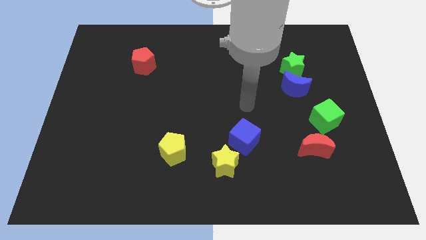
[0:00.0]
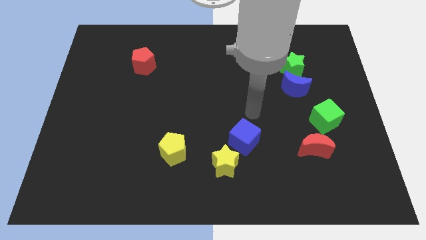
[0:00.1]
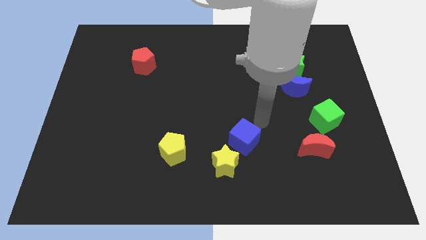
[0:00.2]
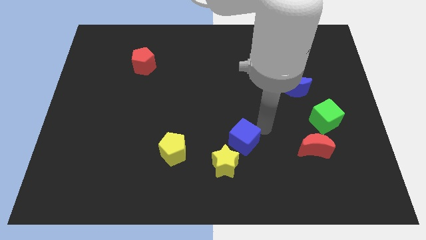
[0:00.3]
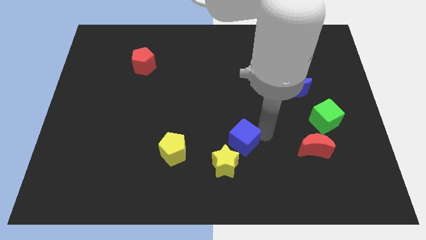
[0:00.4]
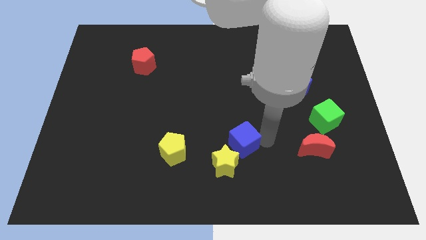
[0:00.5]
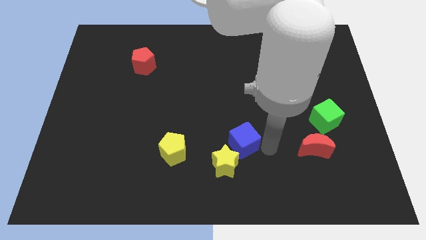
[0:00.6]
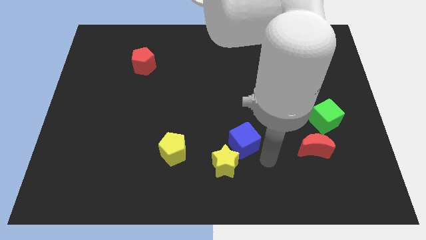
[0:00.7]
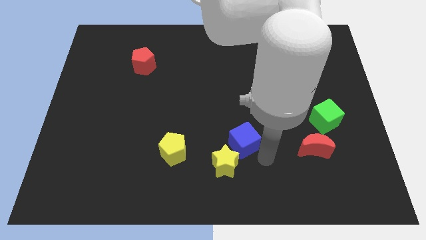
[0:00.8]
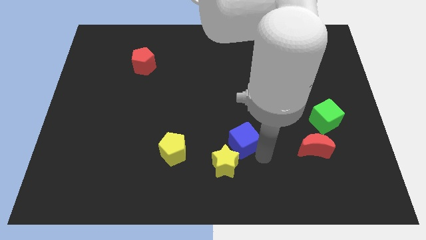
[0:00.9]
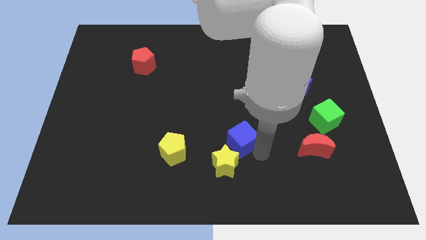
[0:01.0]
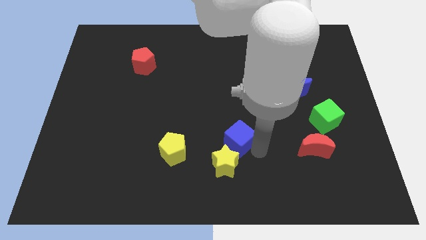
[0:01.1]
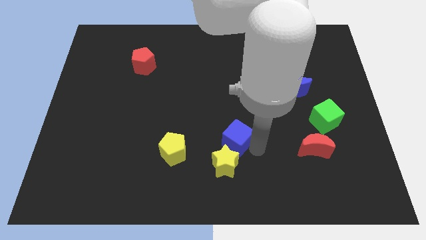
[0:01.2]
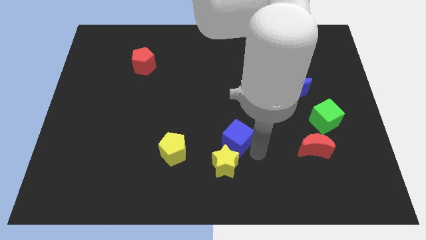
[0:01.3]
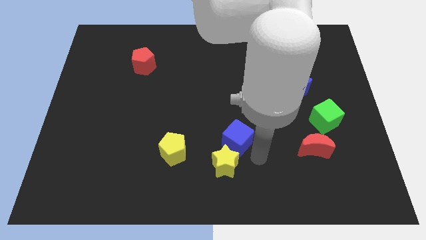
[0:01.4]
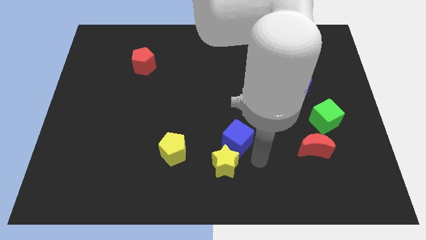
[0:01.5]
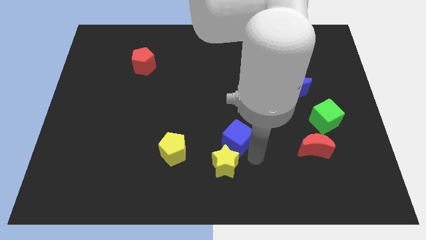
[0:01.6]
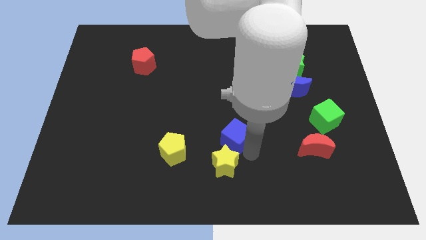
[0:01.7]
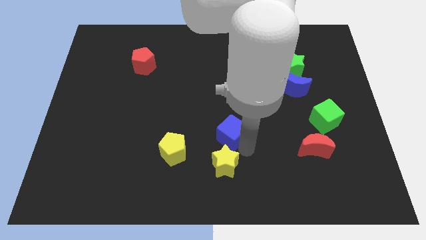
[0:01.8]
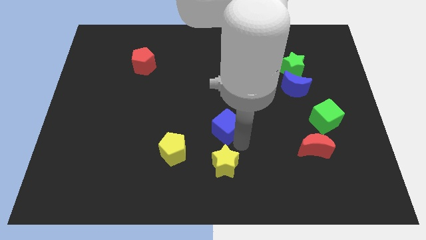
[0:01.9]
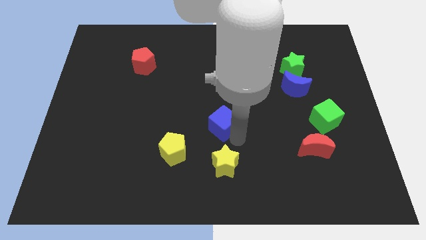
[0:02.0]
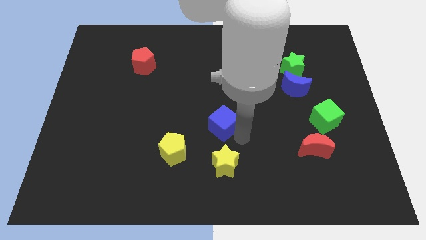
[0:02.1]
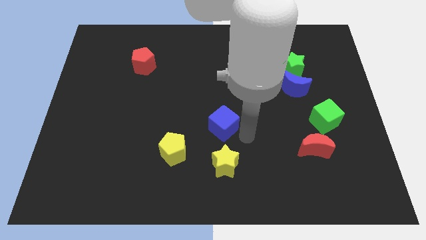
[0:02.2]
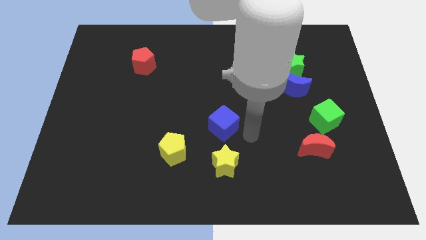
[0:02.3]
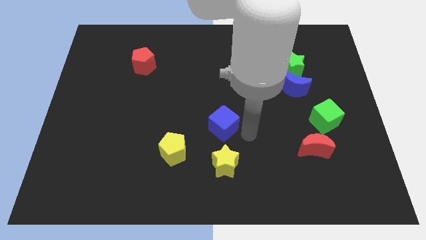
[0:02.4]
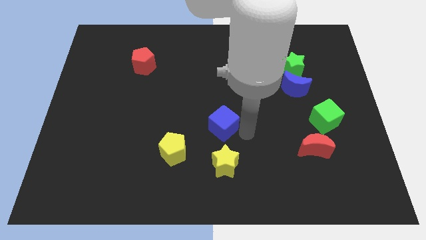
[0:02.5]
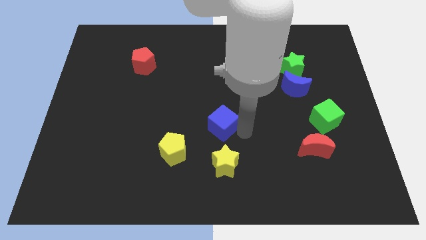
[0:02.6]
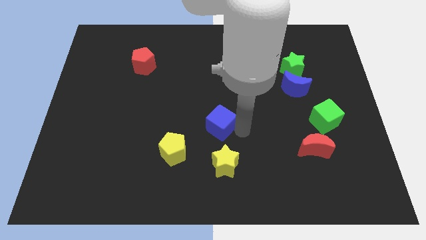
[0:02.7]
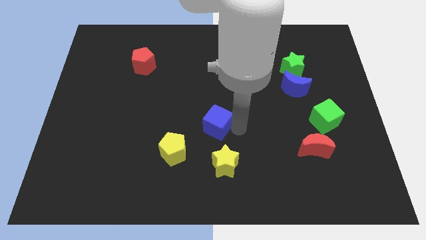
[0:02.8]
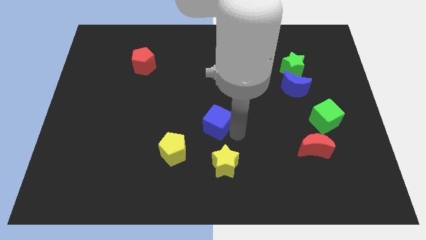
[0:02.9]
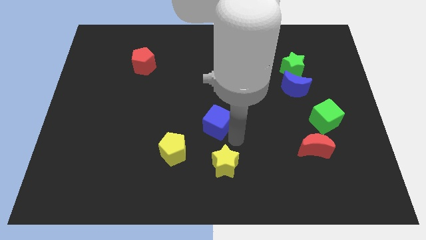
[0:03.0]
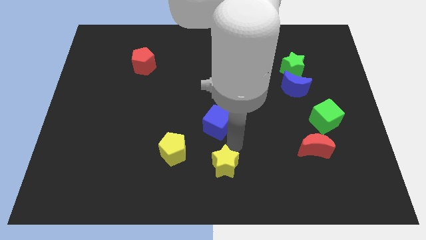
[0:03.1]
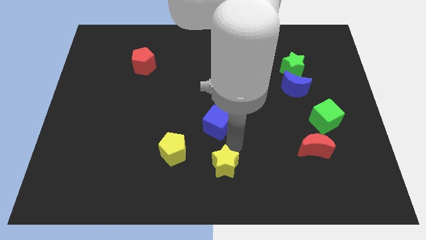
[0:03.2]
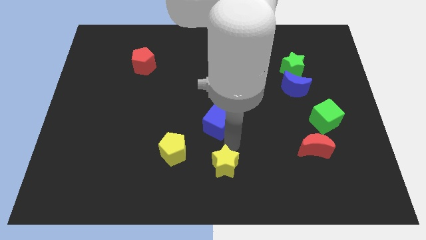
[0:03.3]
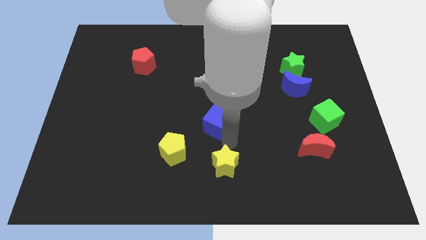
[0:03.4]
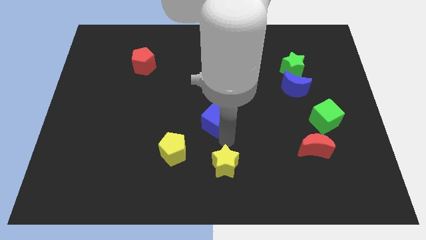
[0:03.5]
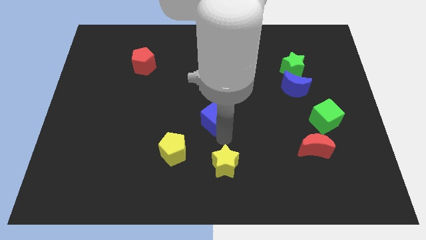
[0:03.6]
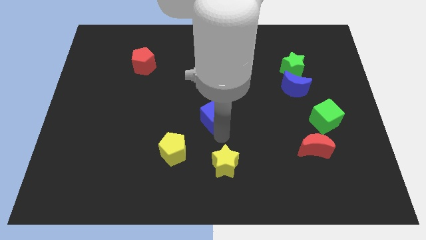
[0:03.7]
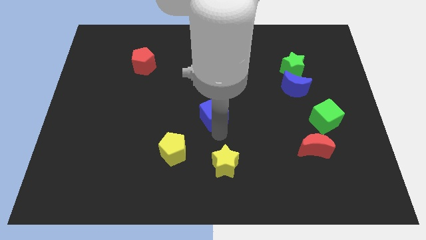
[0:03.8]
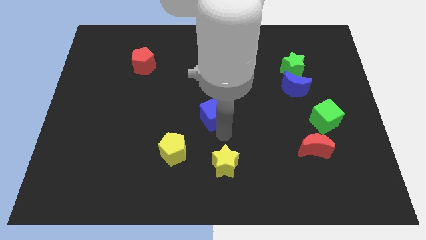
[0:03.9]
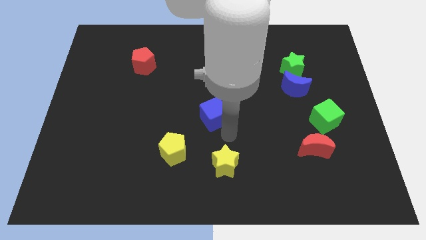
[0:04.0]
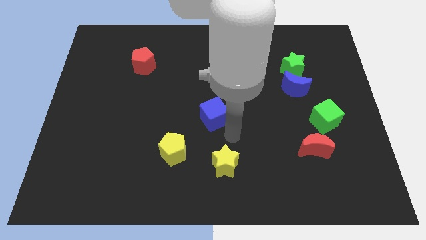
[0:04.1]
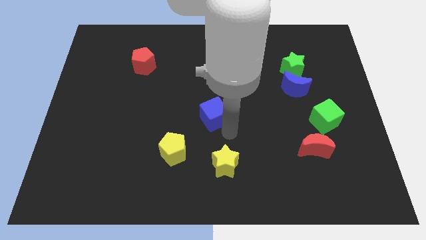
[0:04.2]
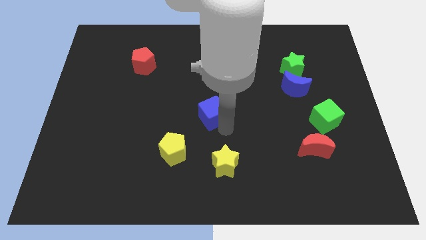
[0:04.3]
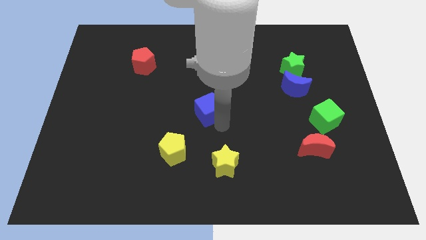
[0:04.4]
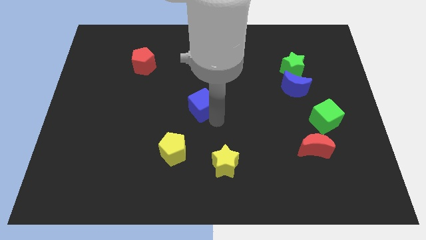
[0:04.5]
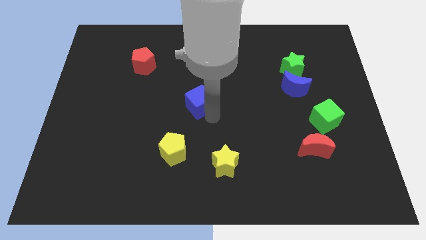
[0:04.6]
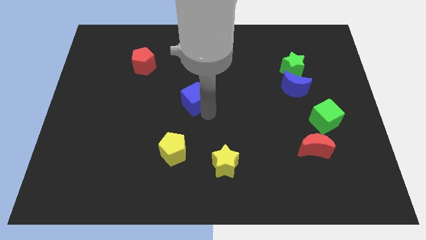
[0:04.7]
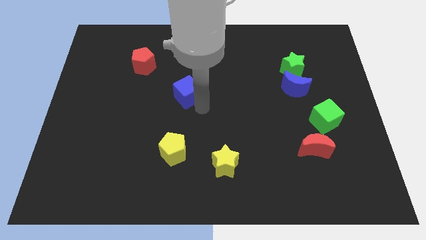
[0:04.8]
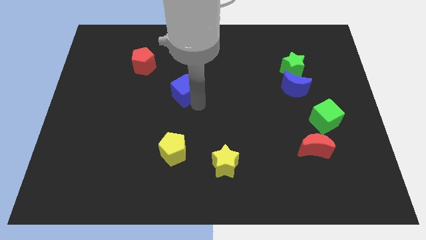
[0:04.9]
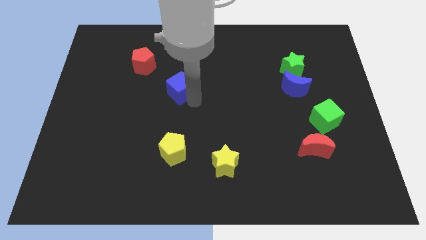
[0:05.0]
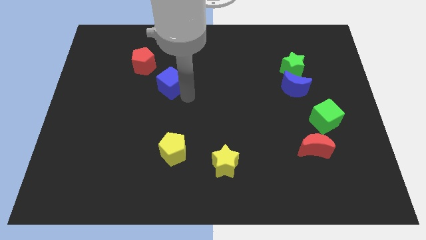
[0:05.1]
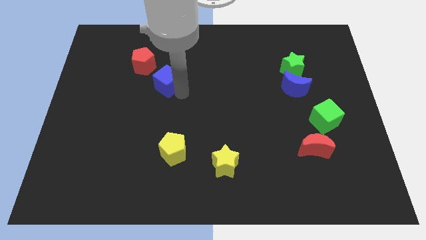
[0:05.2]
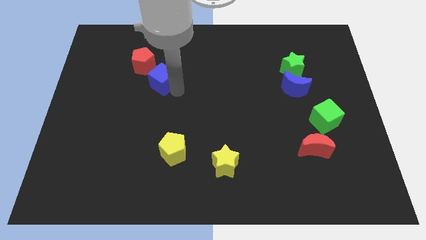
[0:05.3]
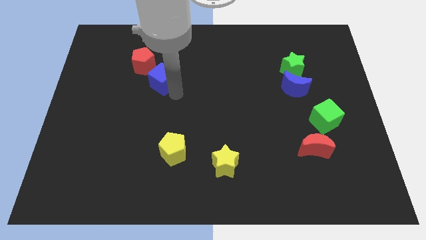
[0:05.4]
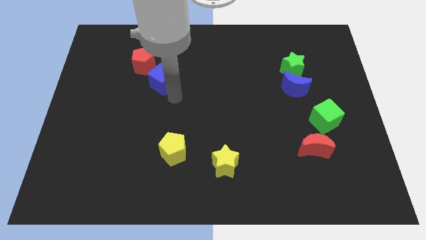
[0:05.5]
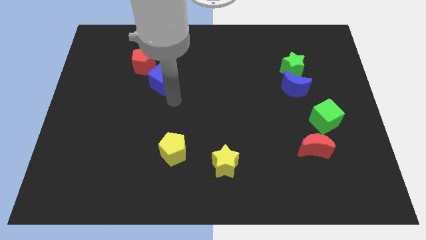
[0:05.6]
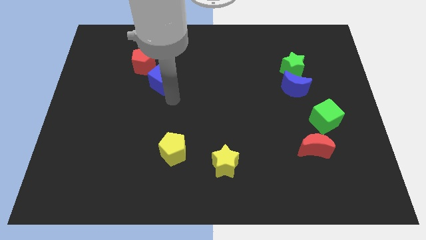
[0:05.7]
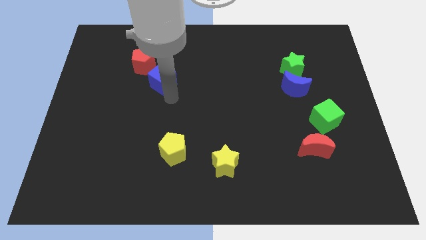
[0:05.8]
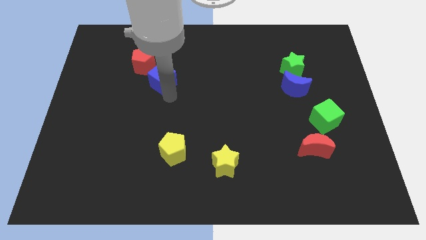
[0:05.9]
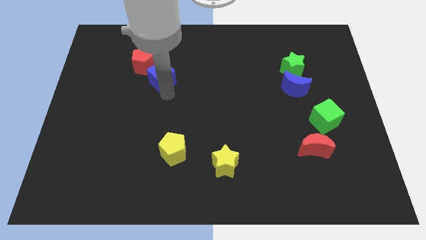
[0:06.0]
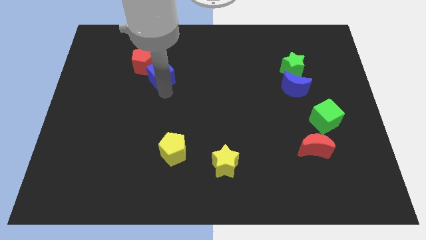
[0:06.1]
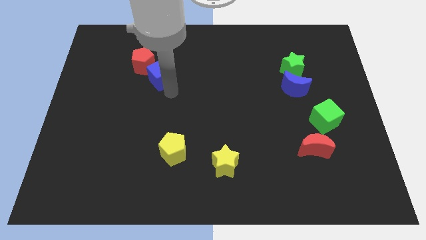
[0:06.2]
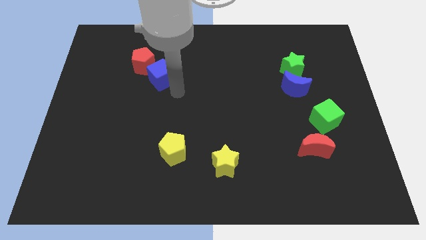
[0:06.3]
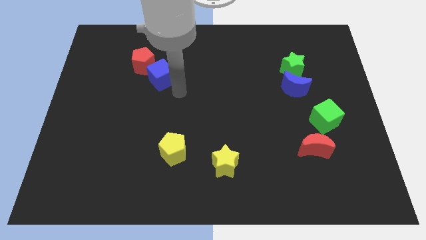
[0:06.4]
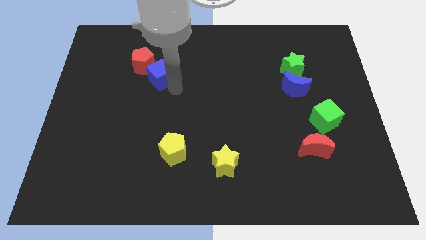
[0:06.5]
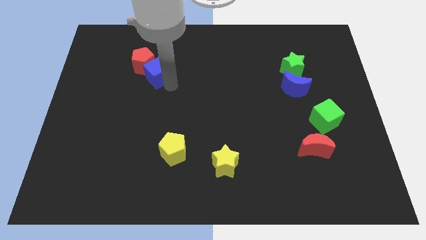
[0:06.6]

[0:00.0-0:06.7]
push the blue cube close to the red pentagon
